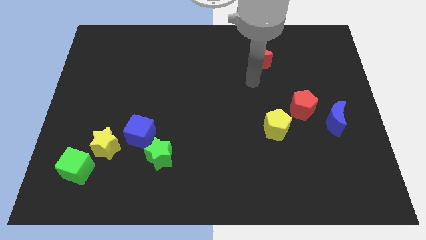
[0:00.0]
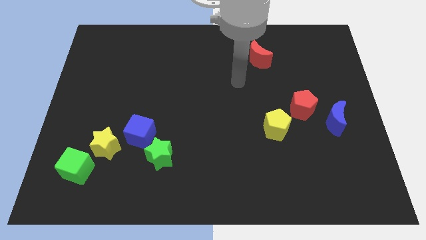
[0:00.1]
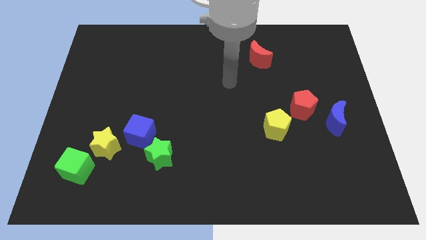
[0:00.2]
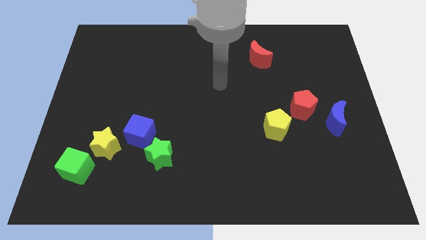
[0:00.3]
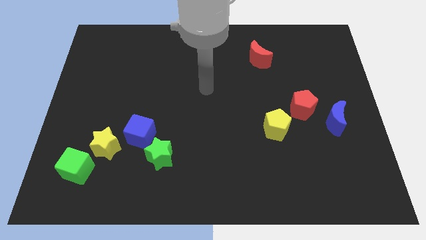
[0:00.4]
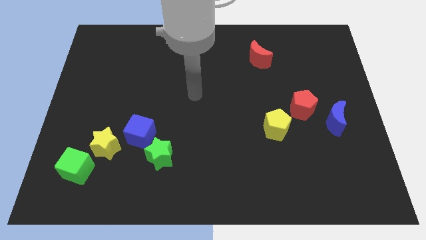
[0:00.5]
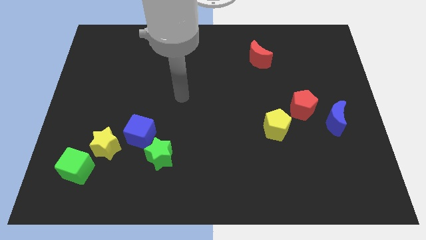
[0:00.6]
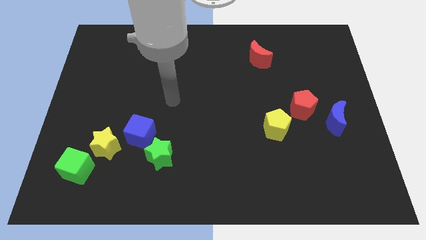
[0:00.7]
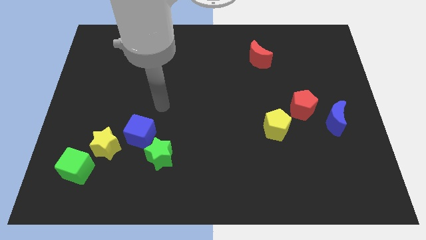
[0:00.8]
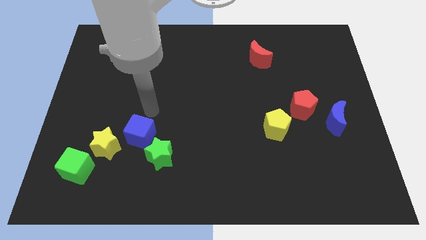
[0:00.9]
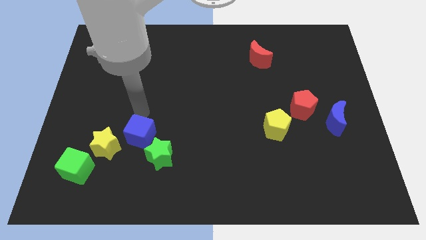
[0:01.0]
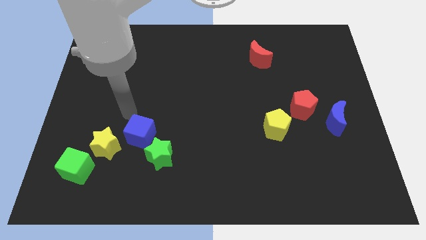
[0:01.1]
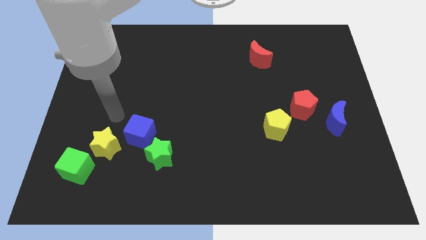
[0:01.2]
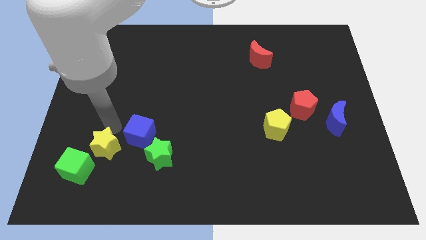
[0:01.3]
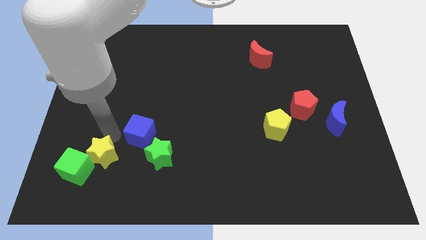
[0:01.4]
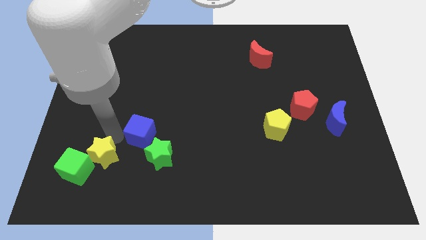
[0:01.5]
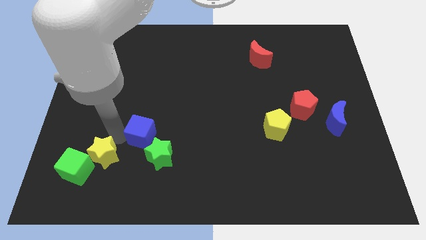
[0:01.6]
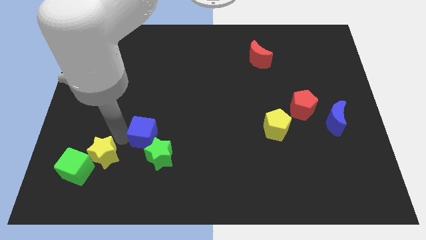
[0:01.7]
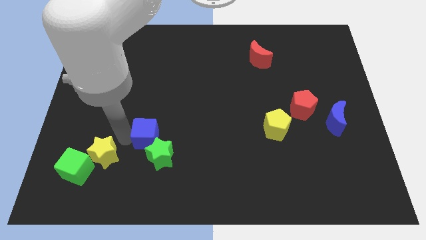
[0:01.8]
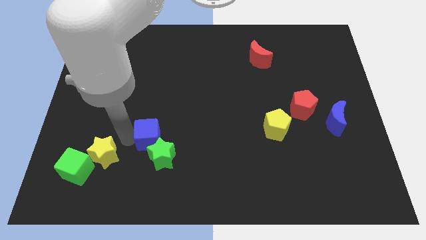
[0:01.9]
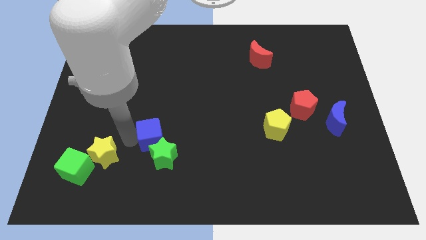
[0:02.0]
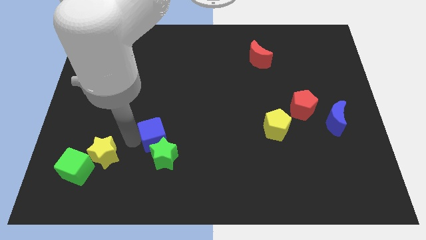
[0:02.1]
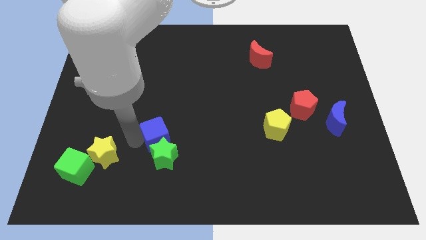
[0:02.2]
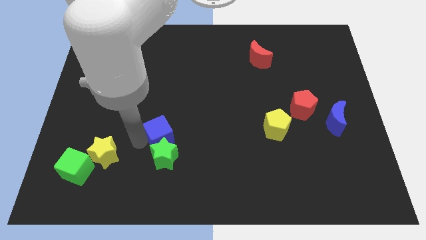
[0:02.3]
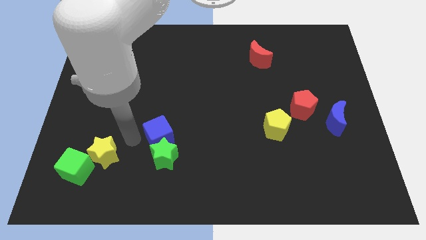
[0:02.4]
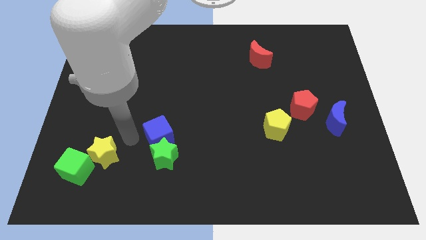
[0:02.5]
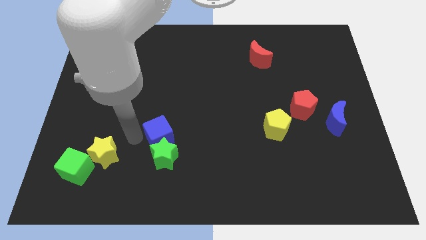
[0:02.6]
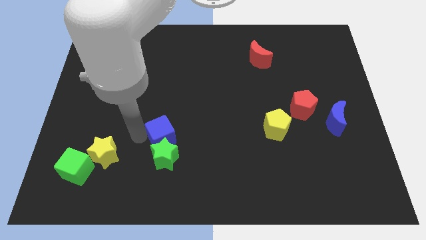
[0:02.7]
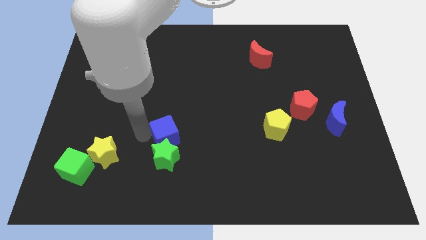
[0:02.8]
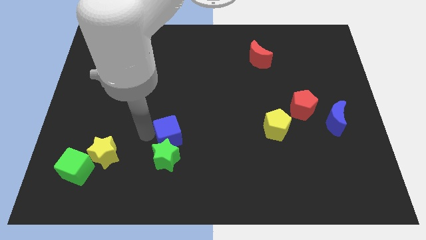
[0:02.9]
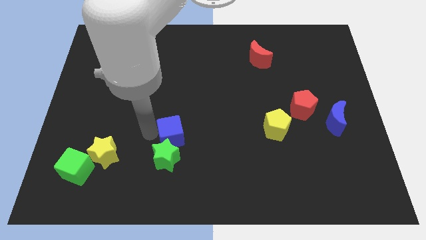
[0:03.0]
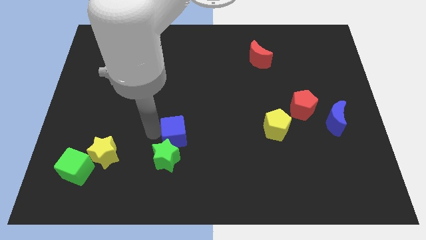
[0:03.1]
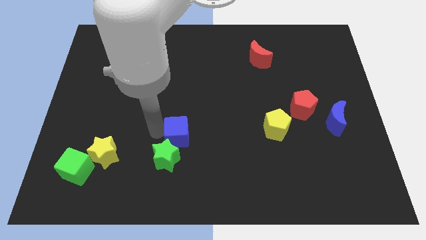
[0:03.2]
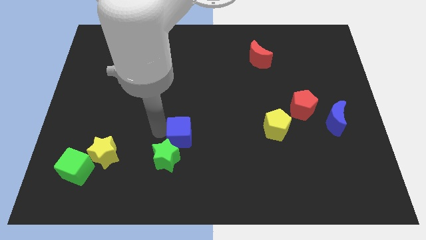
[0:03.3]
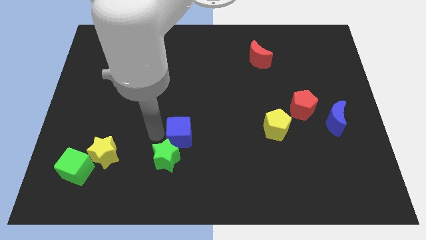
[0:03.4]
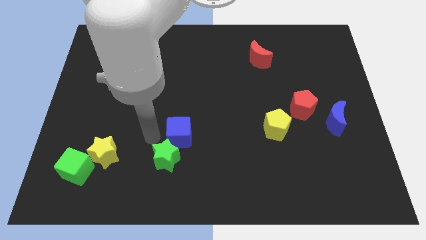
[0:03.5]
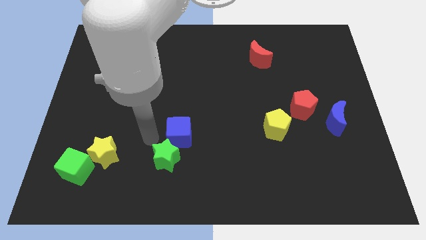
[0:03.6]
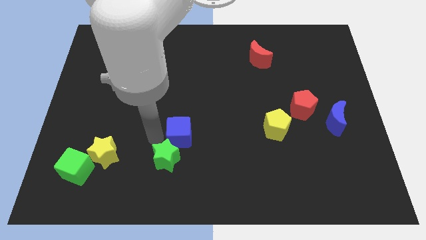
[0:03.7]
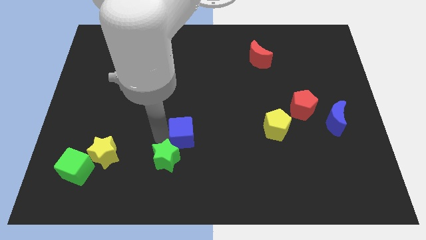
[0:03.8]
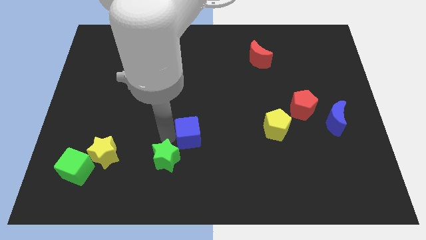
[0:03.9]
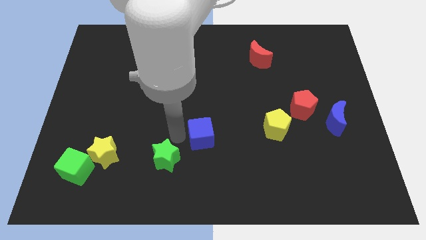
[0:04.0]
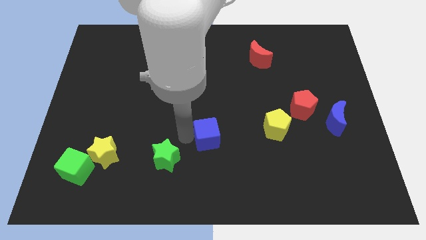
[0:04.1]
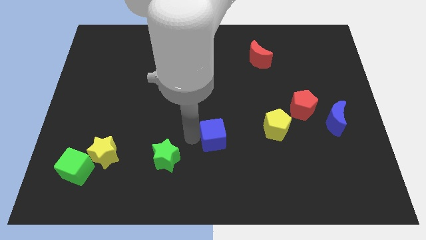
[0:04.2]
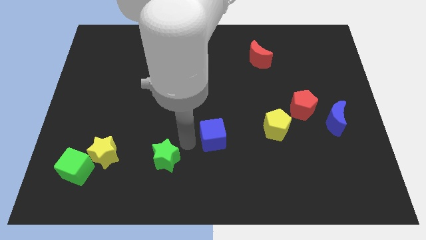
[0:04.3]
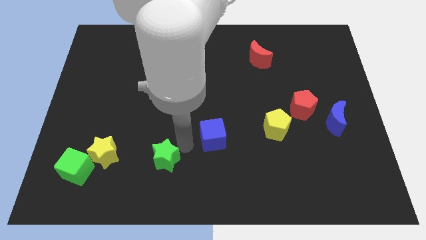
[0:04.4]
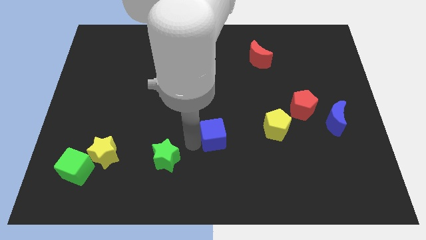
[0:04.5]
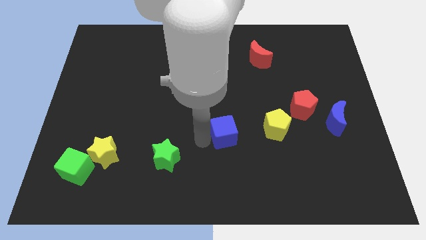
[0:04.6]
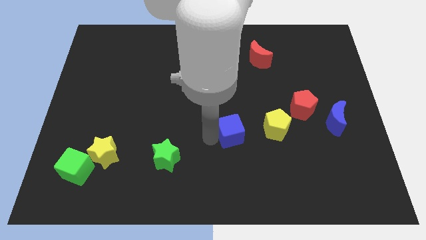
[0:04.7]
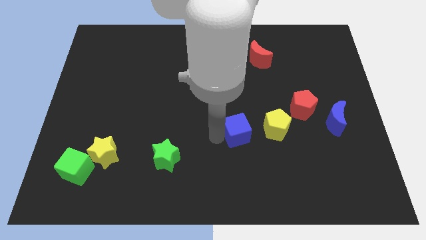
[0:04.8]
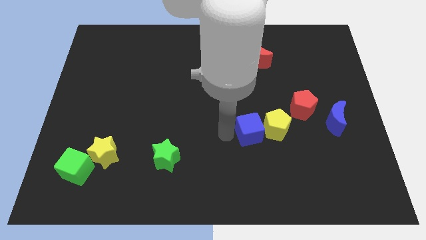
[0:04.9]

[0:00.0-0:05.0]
put the blue cube close to the yellow pentagon

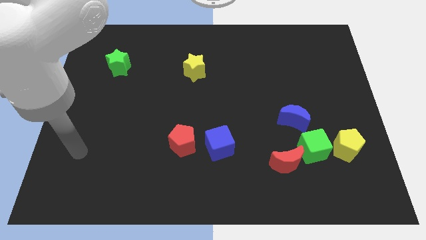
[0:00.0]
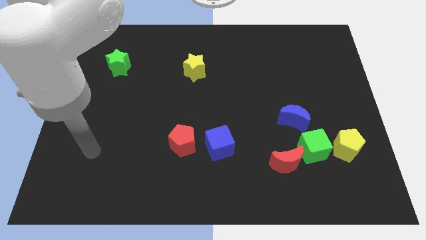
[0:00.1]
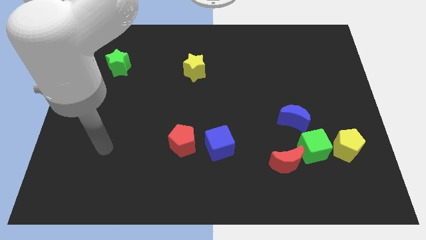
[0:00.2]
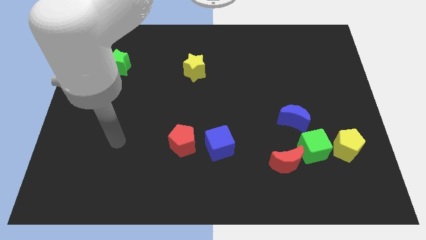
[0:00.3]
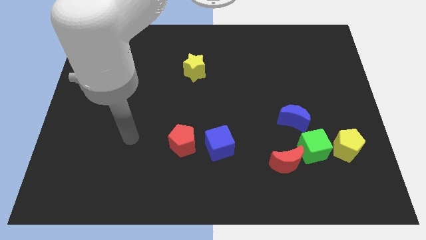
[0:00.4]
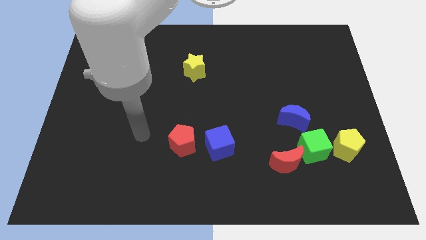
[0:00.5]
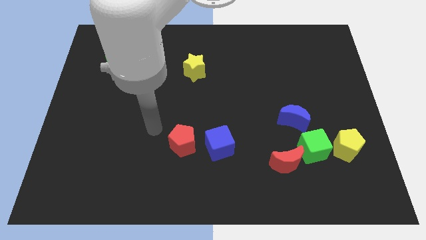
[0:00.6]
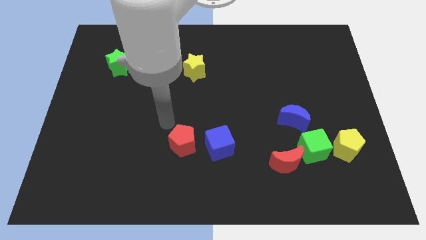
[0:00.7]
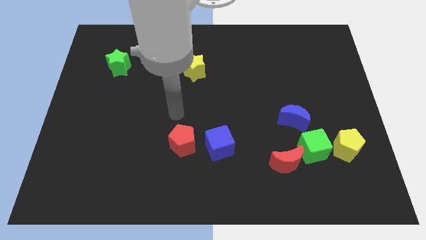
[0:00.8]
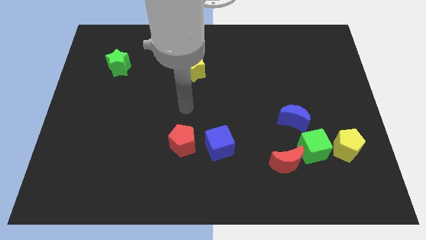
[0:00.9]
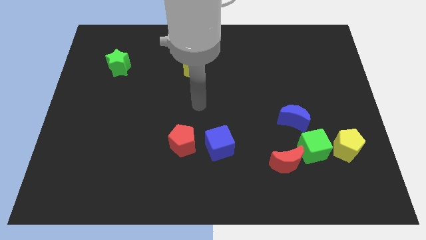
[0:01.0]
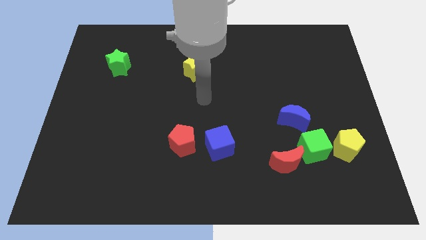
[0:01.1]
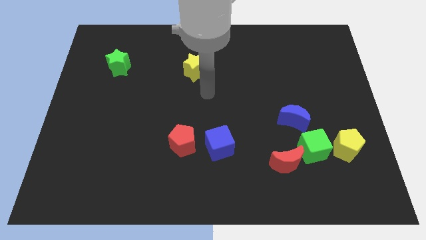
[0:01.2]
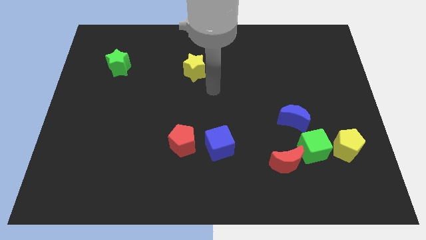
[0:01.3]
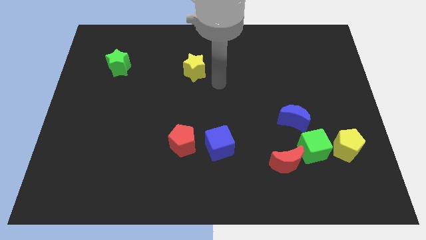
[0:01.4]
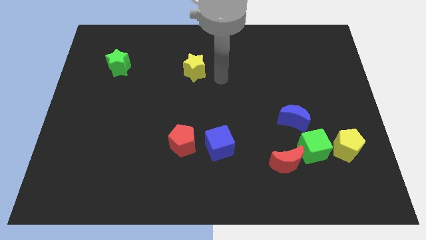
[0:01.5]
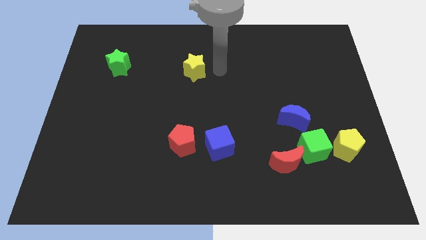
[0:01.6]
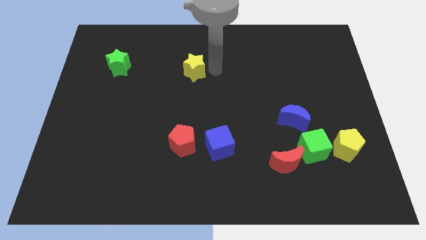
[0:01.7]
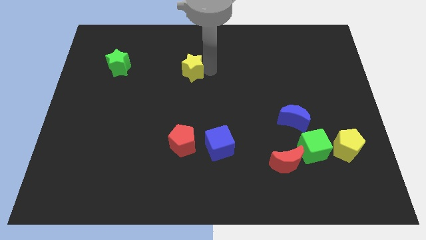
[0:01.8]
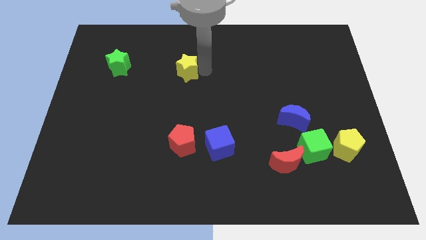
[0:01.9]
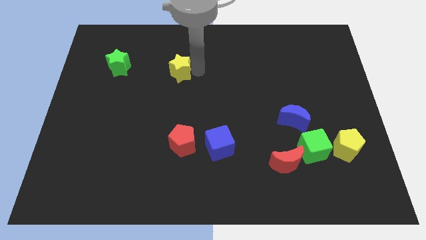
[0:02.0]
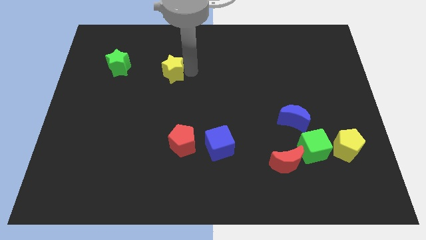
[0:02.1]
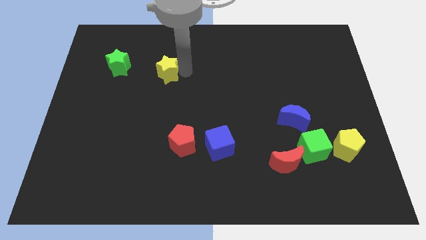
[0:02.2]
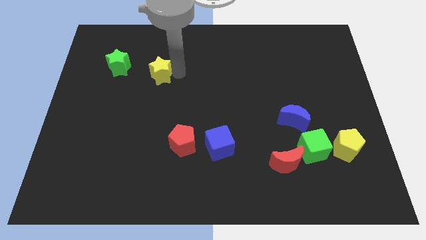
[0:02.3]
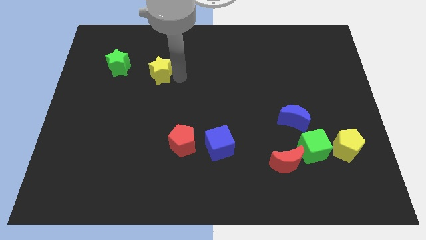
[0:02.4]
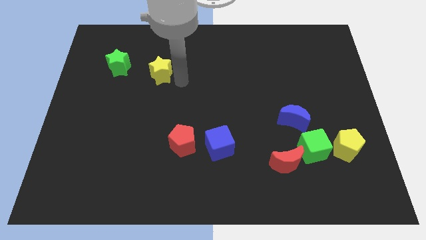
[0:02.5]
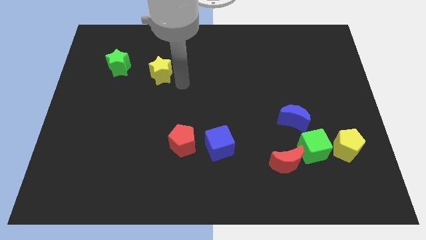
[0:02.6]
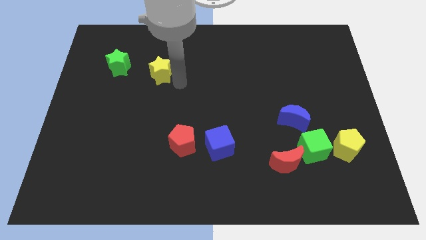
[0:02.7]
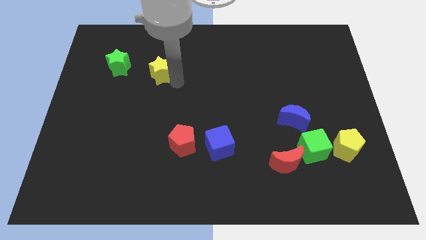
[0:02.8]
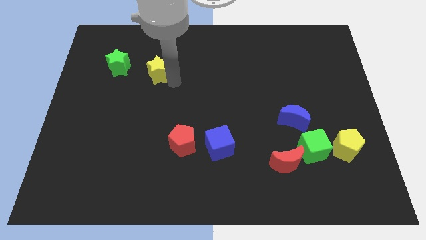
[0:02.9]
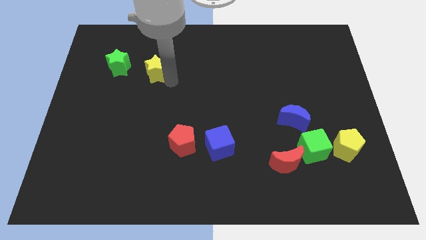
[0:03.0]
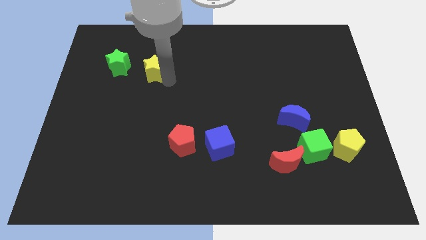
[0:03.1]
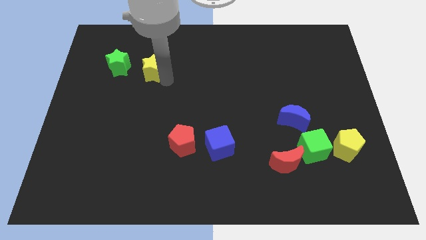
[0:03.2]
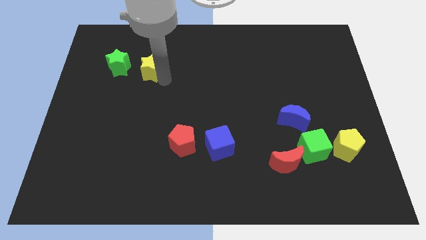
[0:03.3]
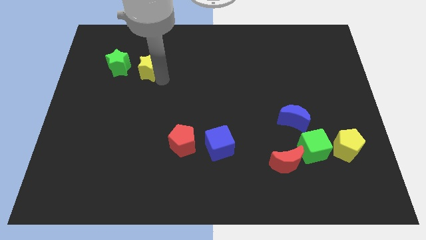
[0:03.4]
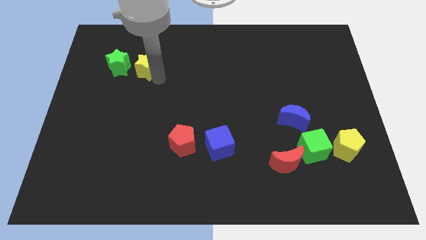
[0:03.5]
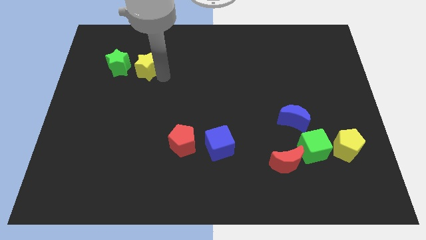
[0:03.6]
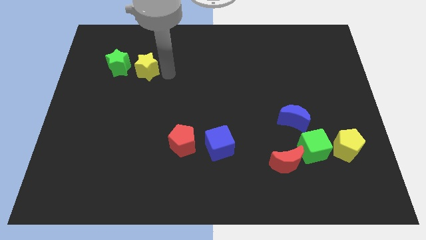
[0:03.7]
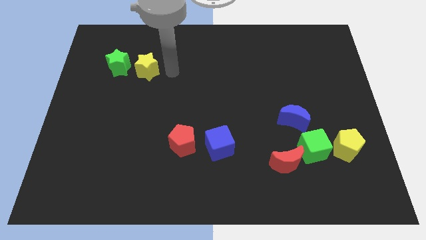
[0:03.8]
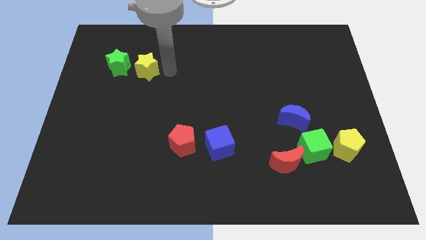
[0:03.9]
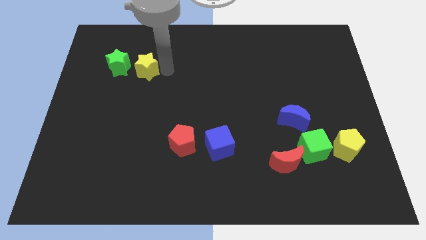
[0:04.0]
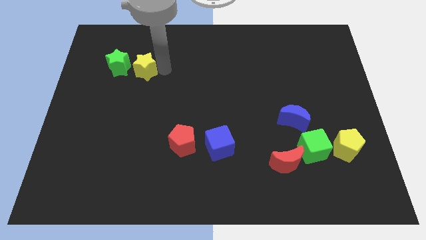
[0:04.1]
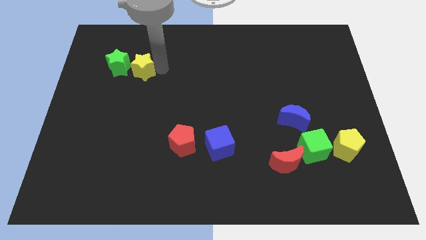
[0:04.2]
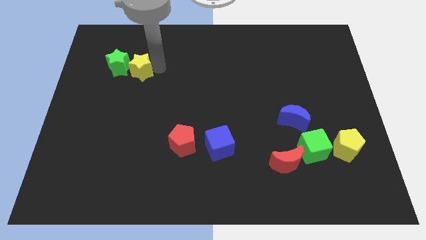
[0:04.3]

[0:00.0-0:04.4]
move the yellow star next to the green star
